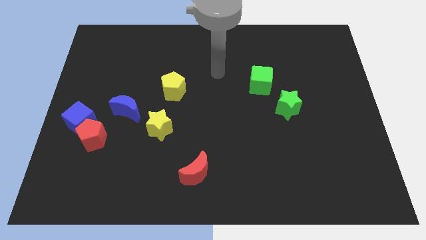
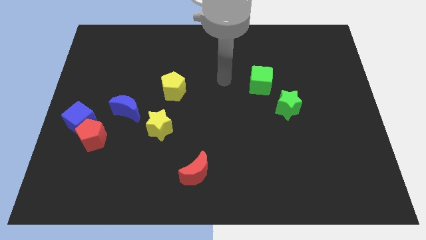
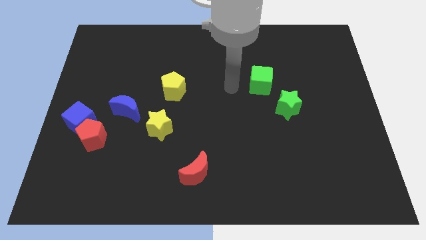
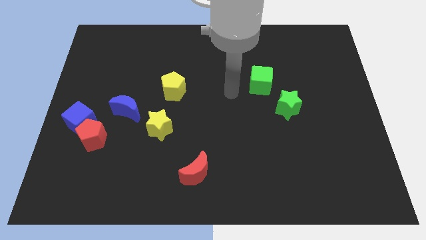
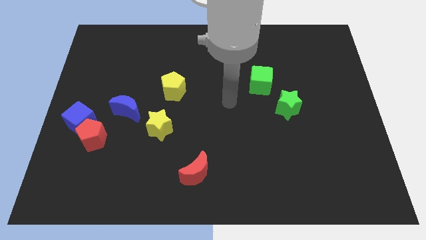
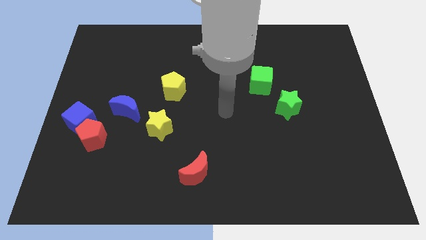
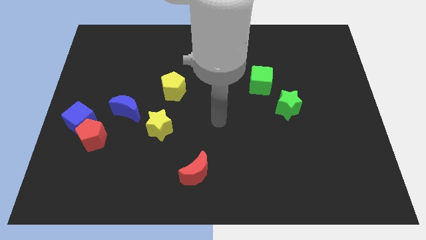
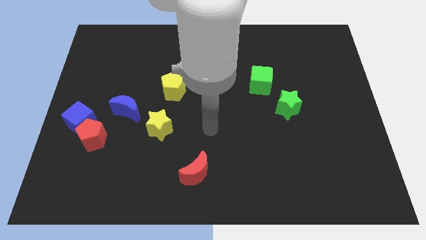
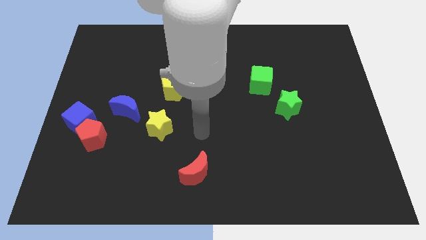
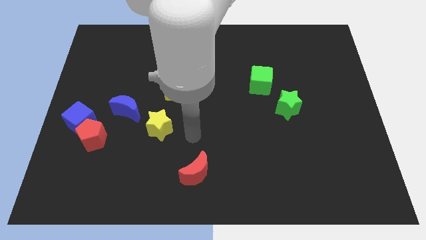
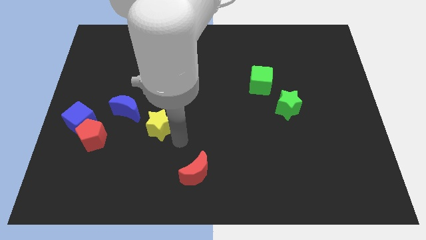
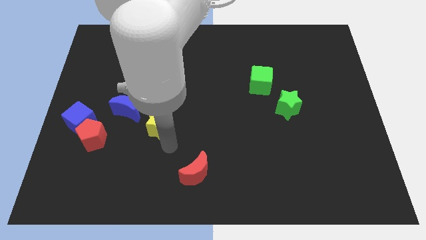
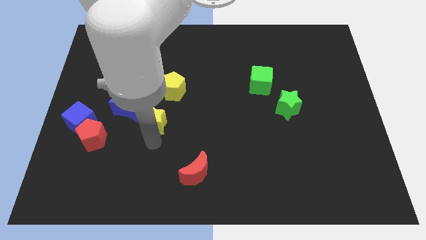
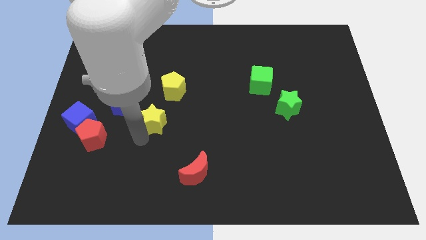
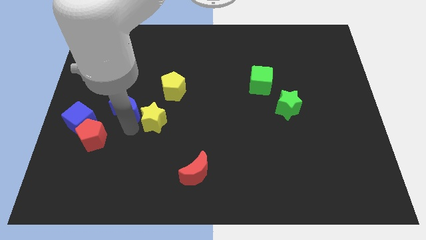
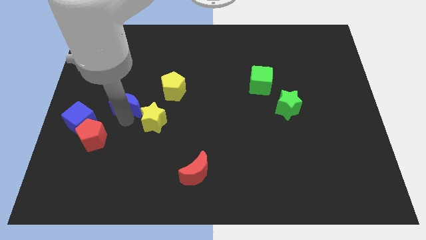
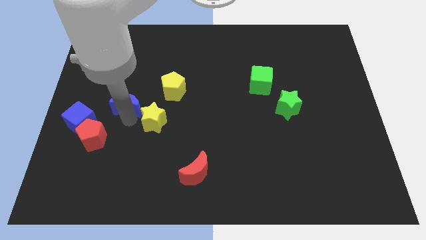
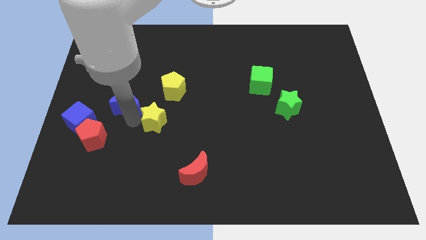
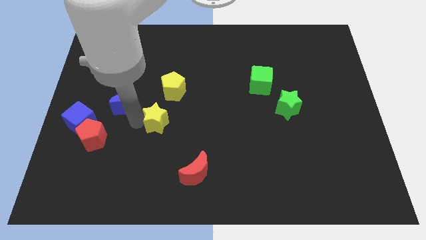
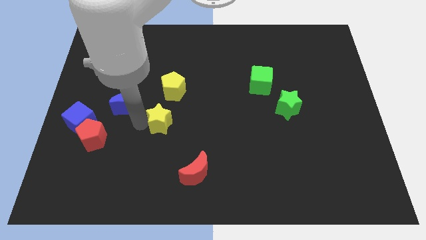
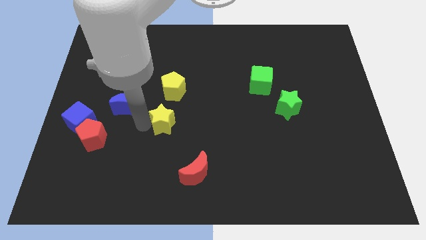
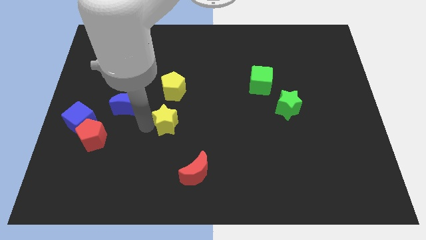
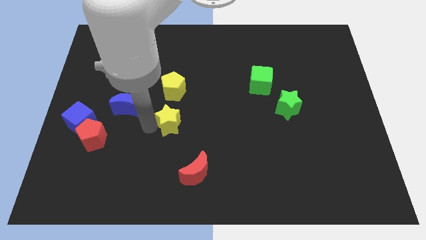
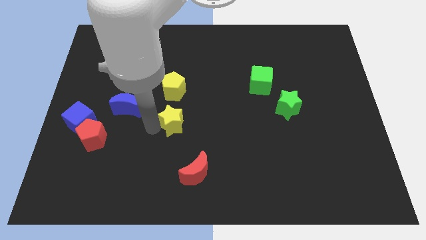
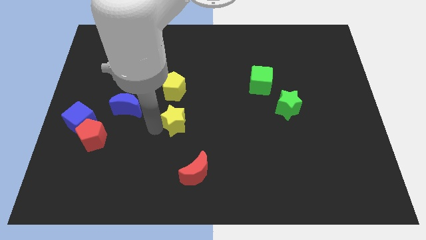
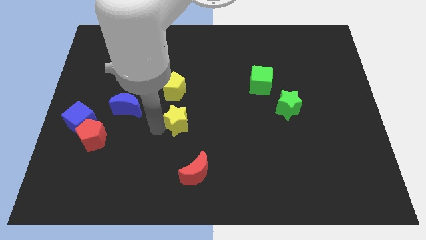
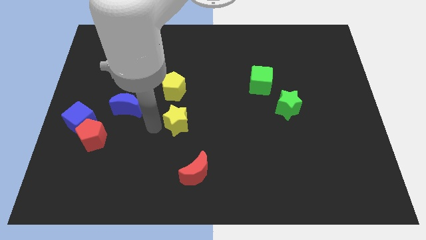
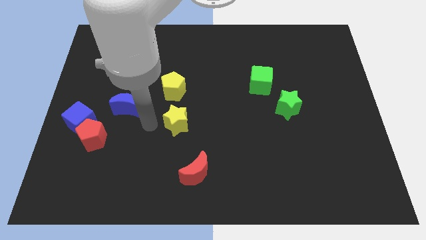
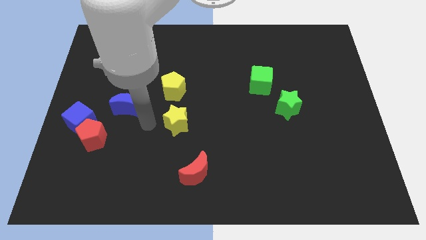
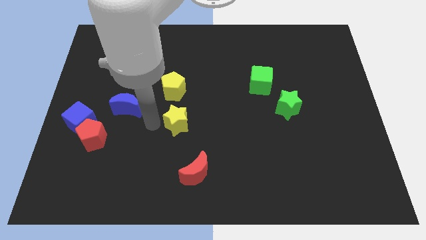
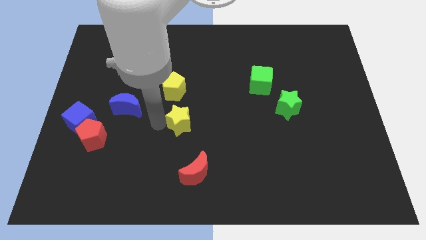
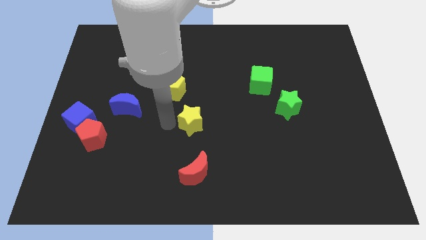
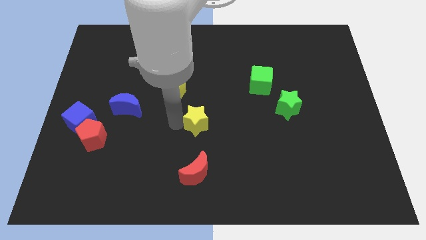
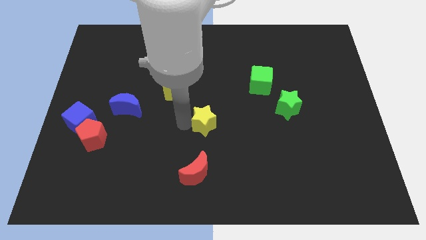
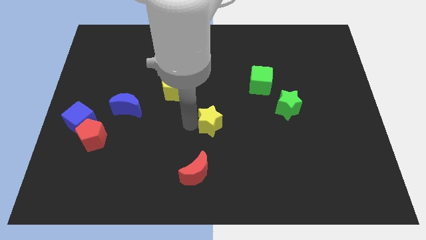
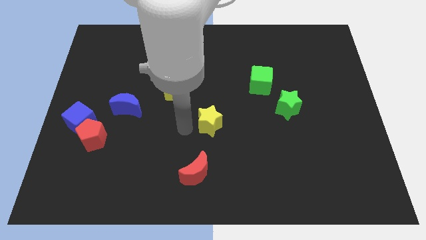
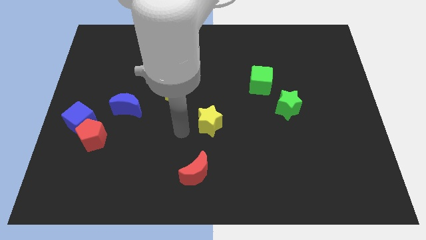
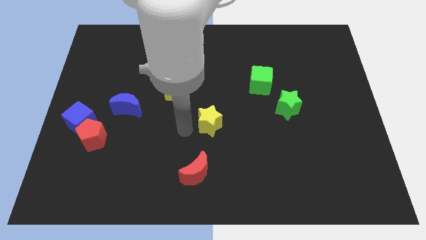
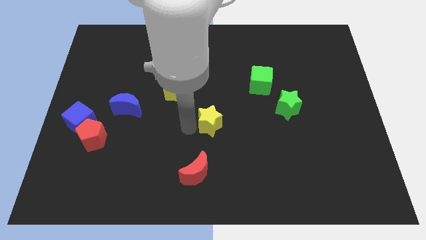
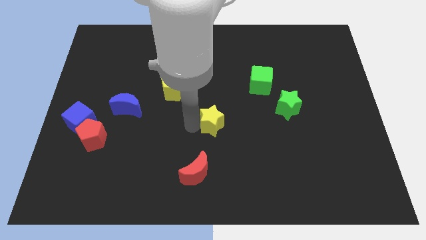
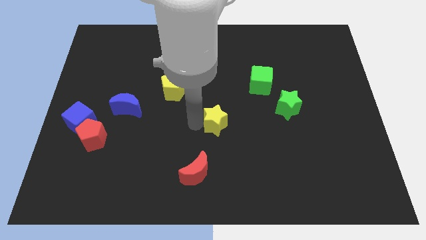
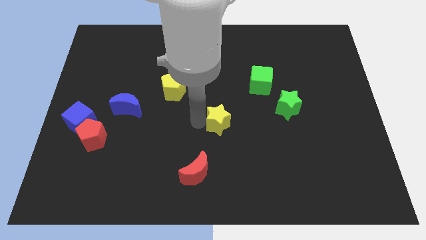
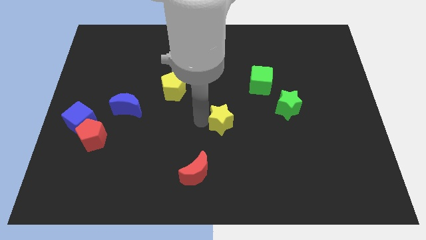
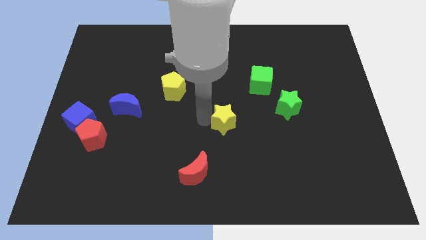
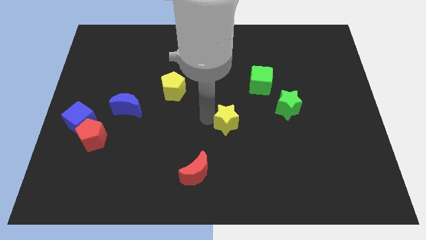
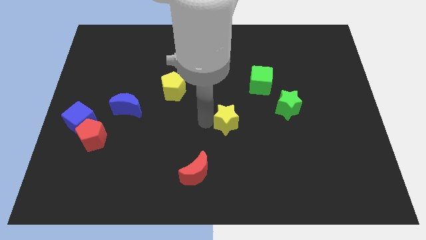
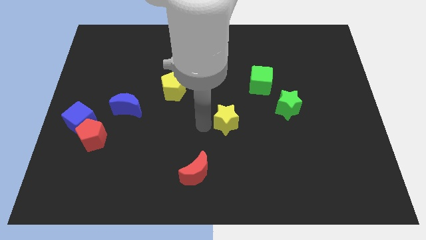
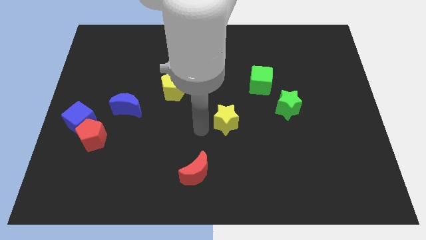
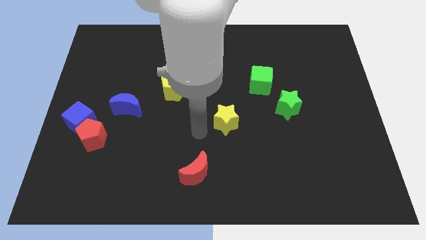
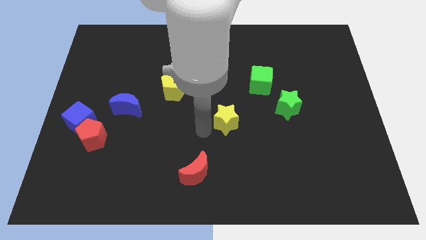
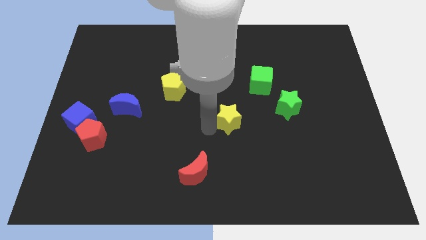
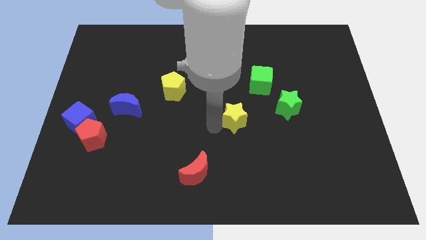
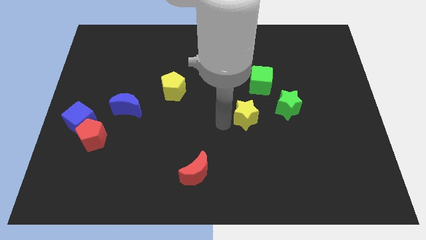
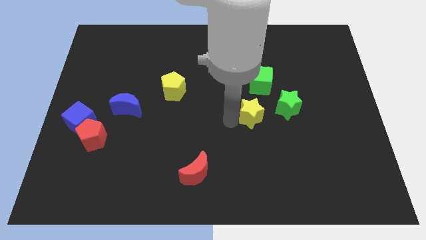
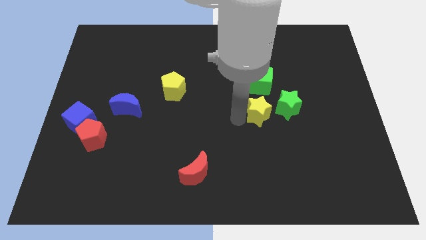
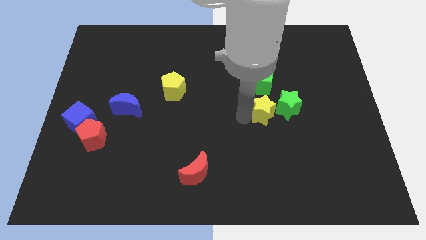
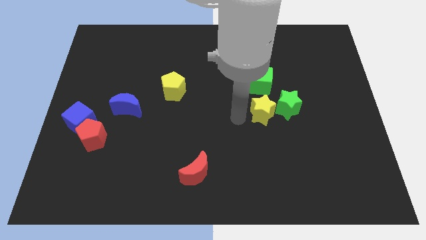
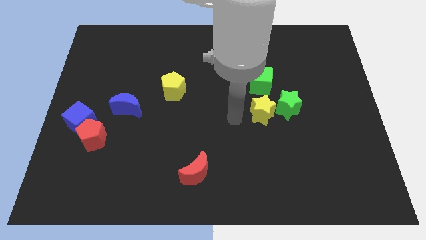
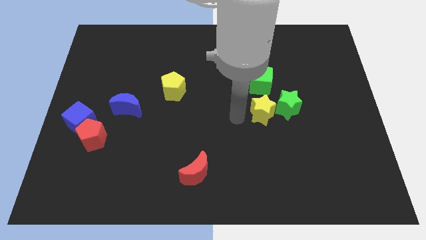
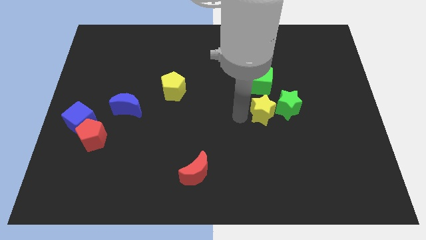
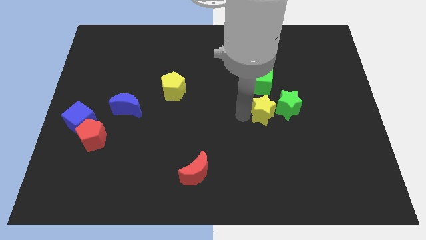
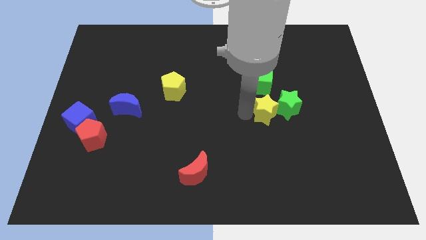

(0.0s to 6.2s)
move the yellow star close to the green star
